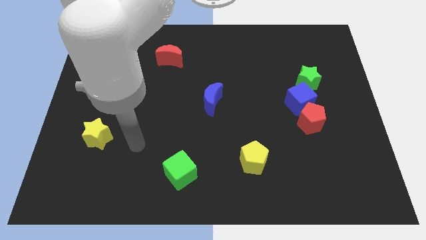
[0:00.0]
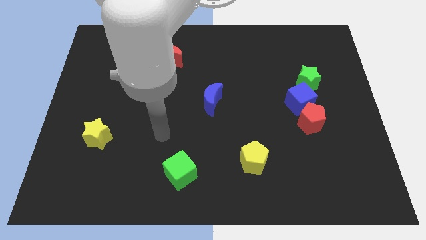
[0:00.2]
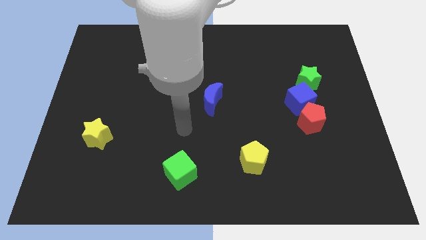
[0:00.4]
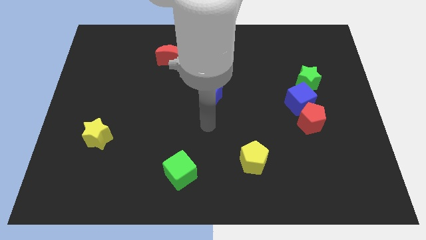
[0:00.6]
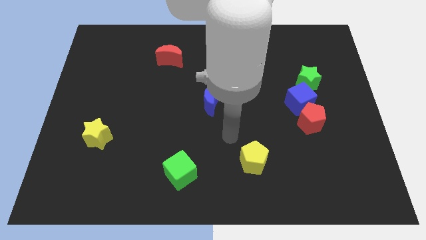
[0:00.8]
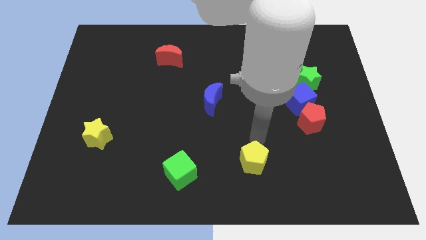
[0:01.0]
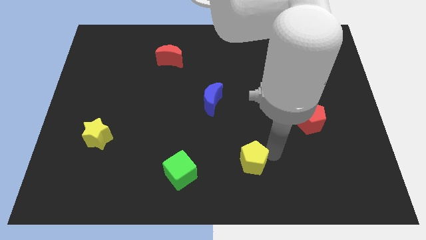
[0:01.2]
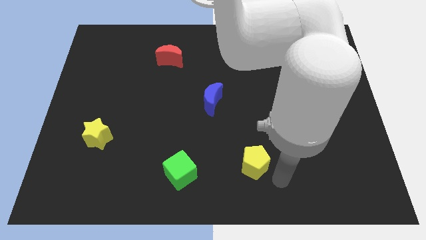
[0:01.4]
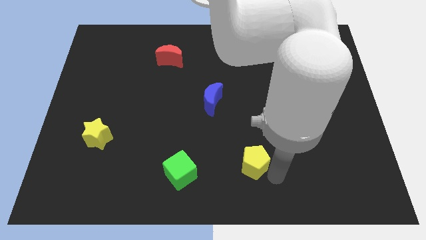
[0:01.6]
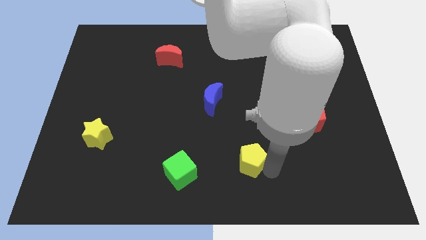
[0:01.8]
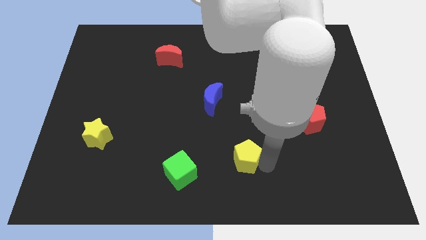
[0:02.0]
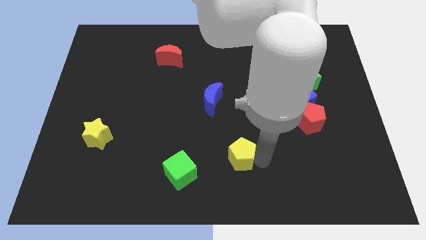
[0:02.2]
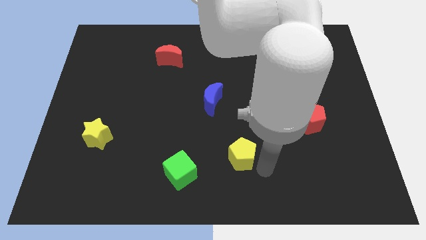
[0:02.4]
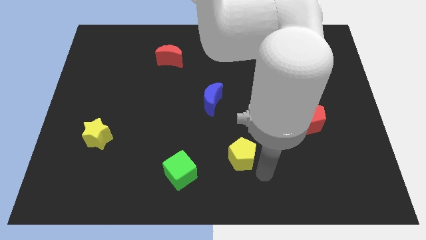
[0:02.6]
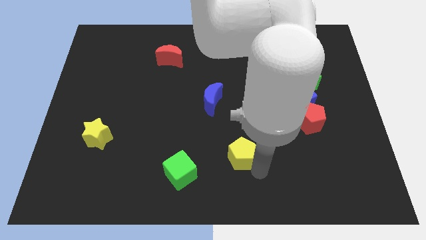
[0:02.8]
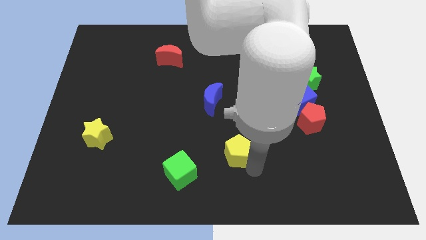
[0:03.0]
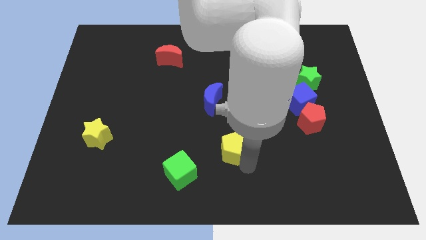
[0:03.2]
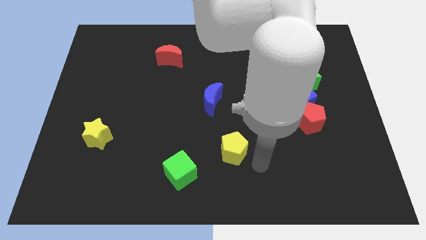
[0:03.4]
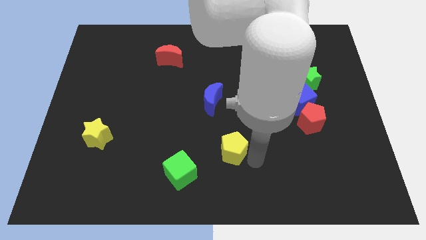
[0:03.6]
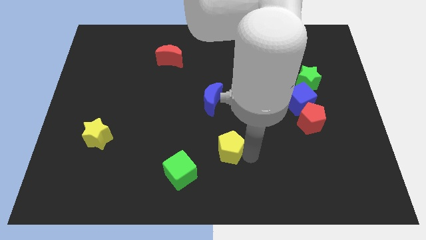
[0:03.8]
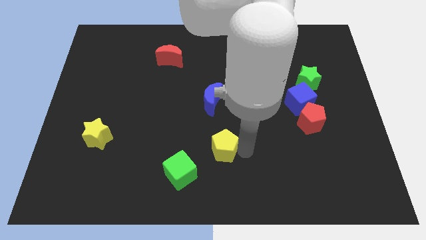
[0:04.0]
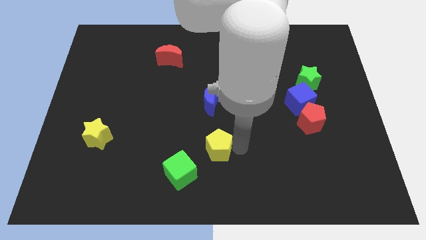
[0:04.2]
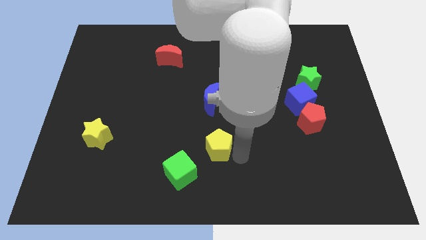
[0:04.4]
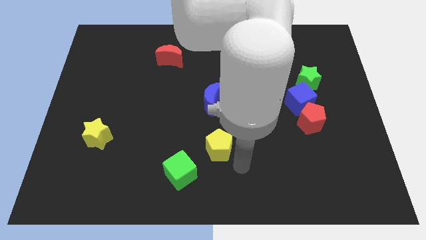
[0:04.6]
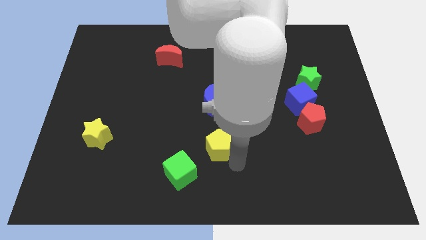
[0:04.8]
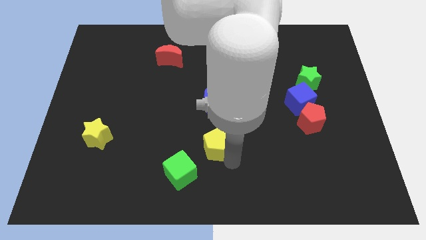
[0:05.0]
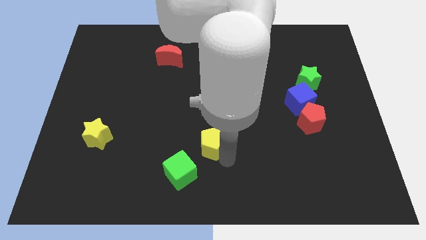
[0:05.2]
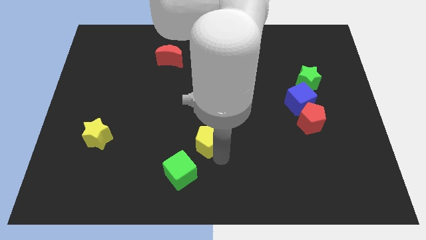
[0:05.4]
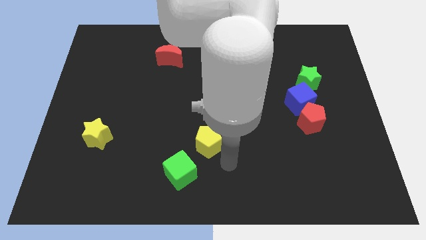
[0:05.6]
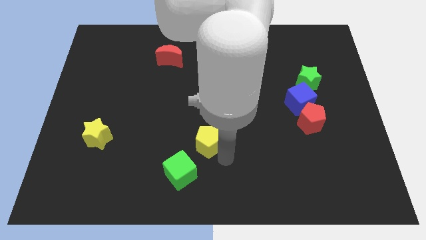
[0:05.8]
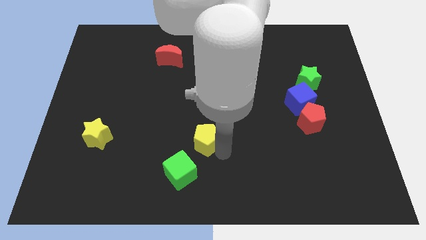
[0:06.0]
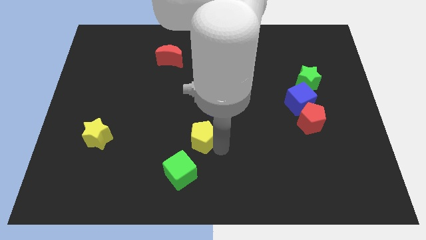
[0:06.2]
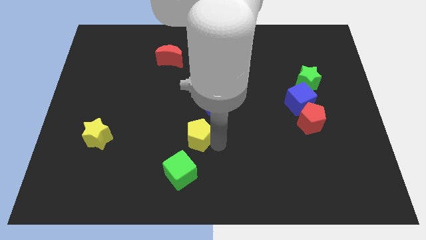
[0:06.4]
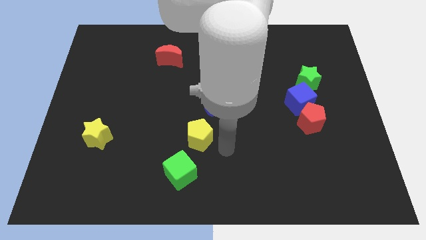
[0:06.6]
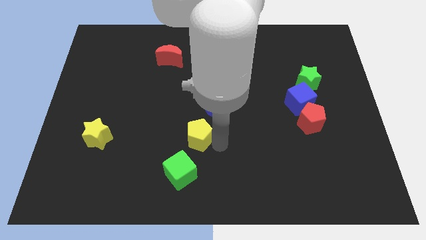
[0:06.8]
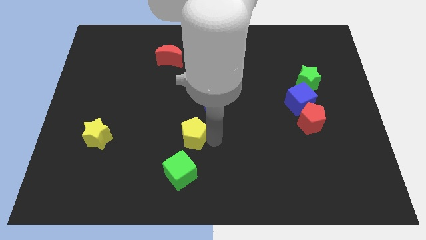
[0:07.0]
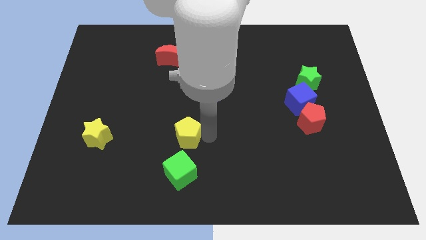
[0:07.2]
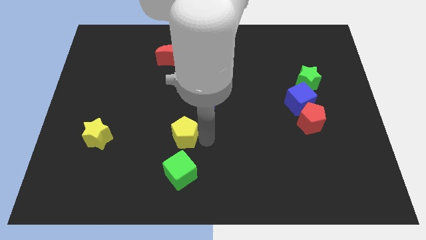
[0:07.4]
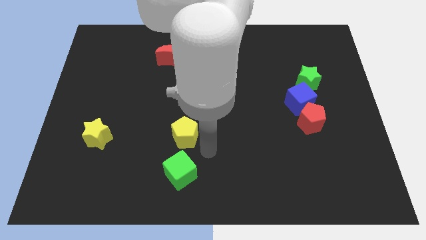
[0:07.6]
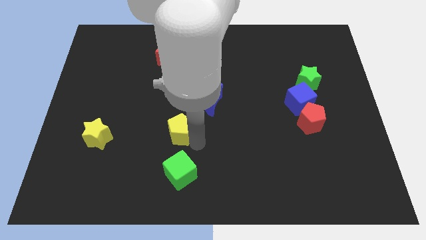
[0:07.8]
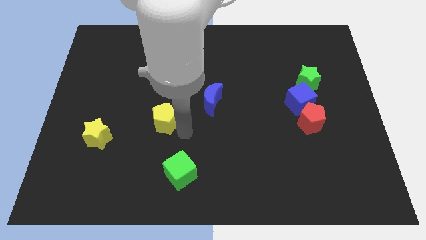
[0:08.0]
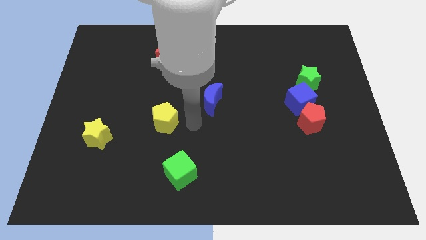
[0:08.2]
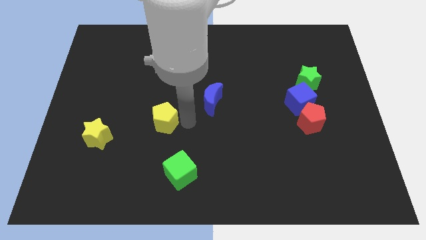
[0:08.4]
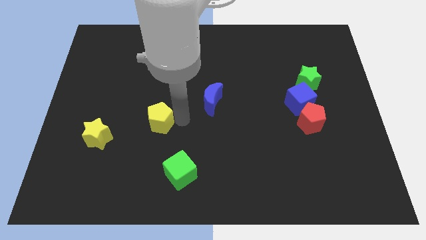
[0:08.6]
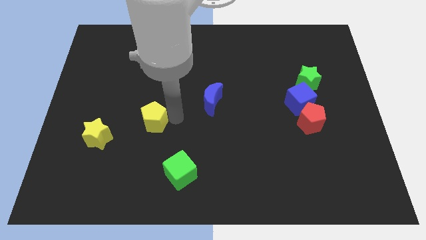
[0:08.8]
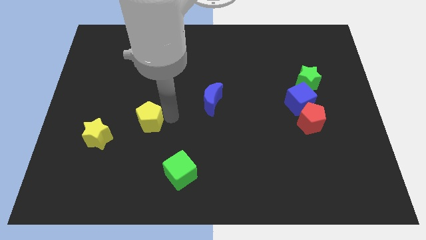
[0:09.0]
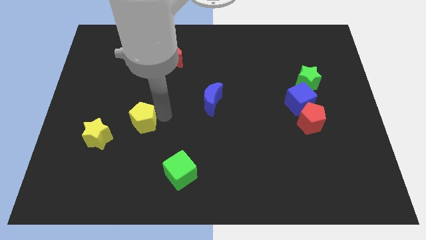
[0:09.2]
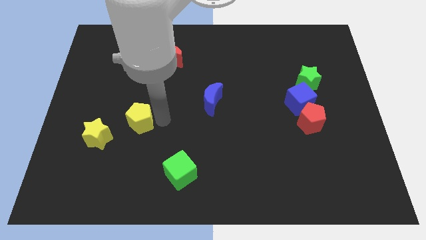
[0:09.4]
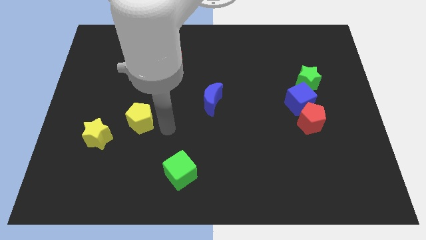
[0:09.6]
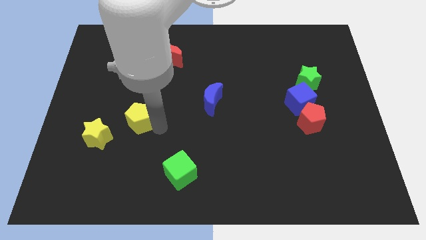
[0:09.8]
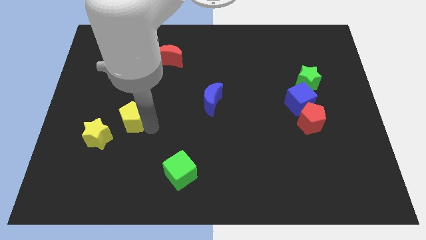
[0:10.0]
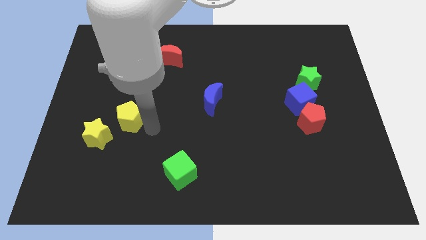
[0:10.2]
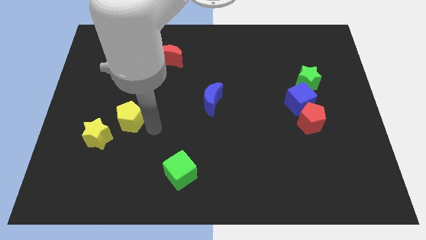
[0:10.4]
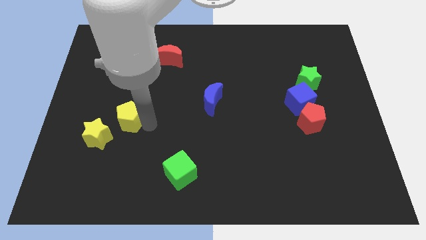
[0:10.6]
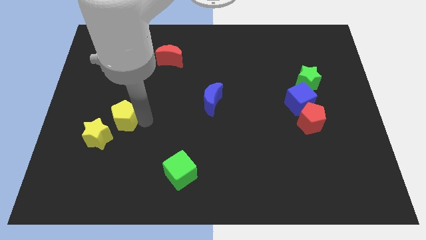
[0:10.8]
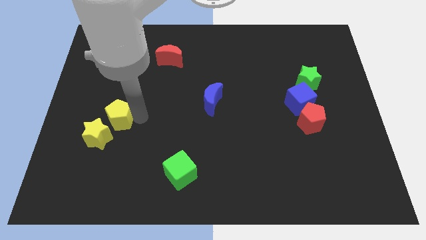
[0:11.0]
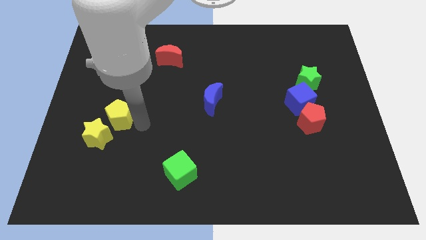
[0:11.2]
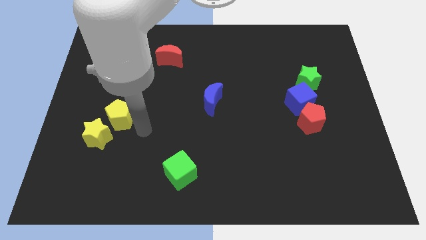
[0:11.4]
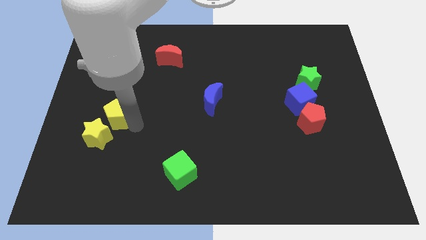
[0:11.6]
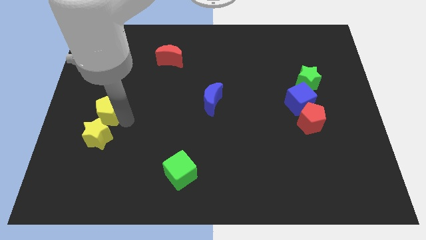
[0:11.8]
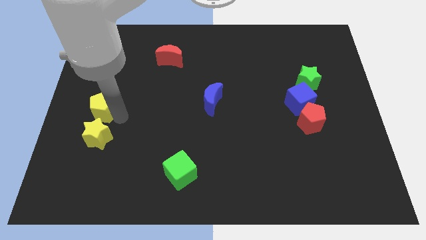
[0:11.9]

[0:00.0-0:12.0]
move the yellow pentagon to the center left

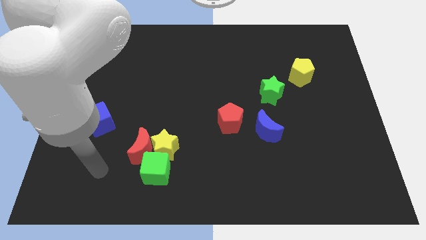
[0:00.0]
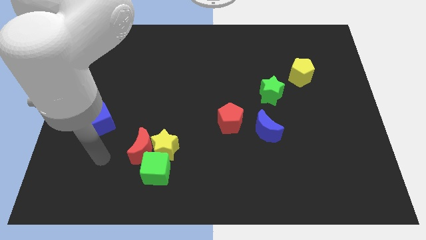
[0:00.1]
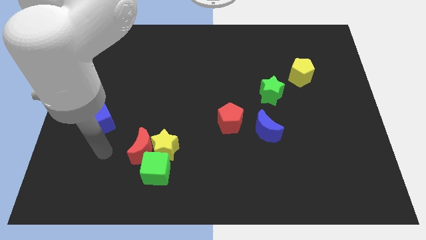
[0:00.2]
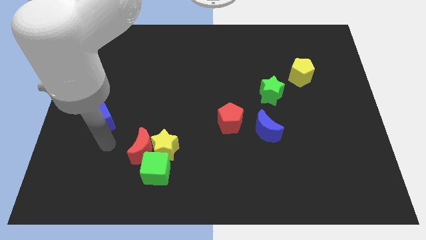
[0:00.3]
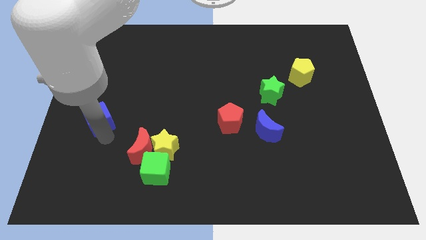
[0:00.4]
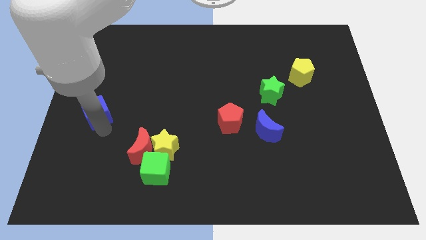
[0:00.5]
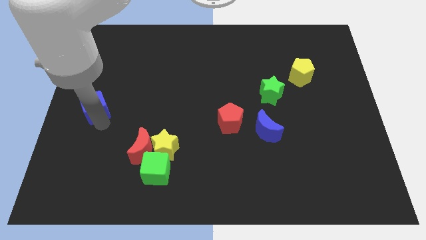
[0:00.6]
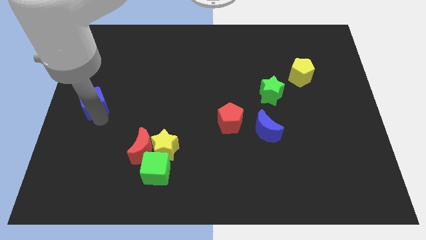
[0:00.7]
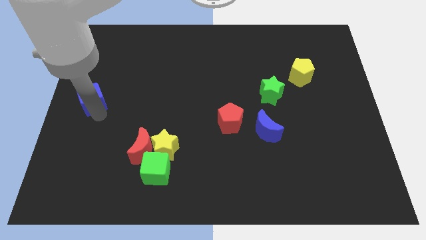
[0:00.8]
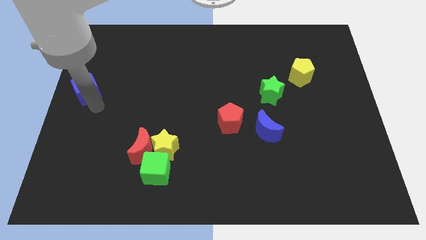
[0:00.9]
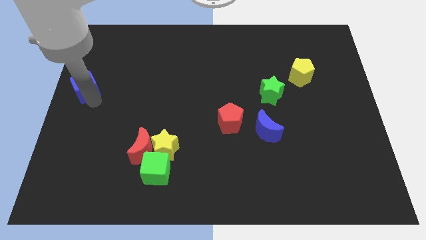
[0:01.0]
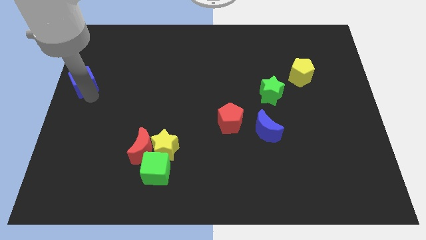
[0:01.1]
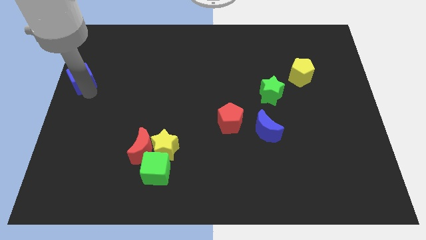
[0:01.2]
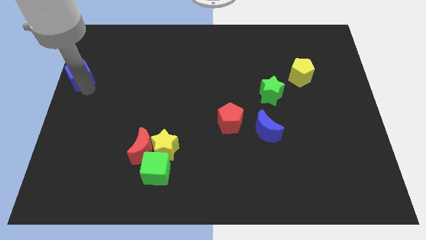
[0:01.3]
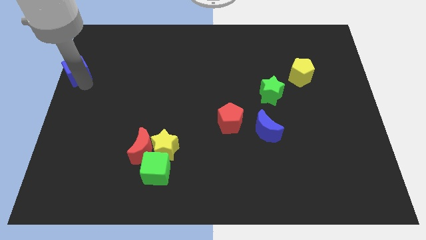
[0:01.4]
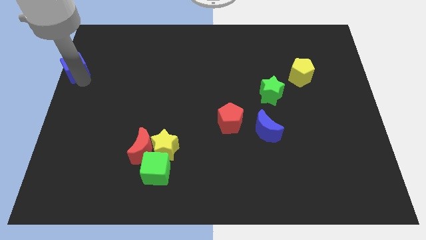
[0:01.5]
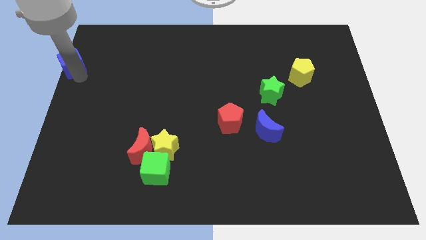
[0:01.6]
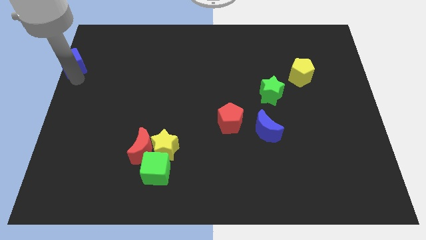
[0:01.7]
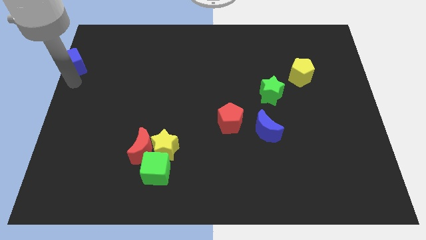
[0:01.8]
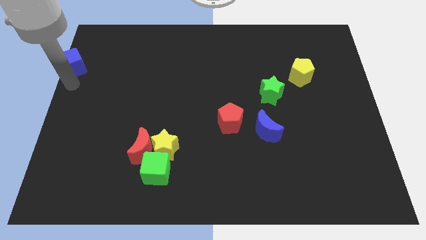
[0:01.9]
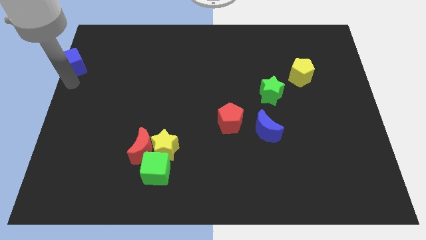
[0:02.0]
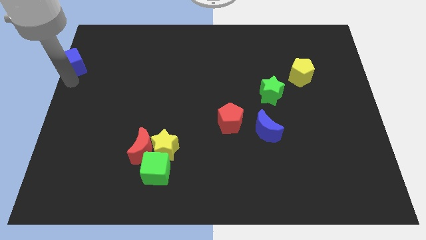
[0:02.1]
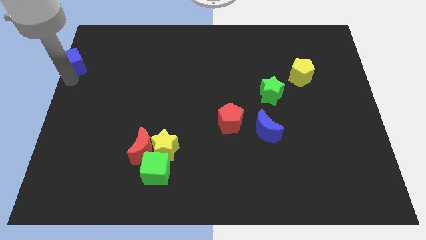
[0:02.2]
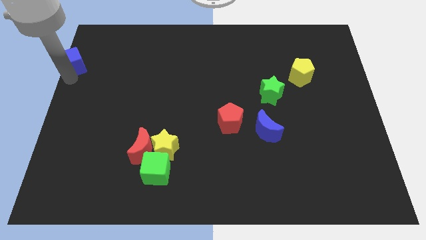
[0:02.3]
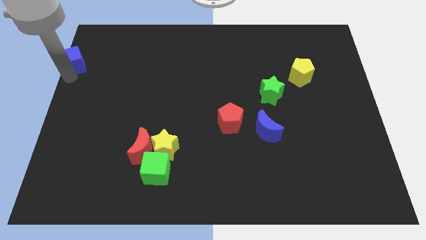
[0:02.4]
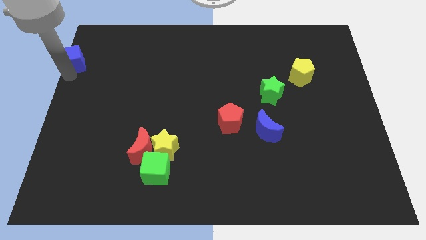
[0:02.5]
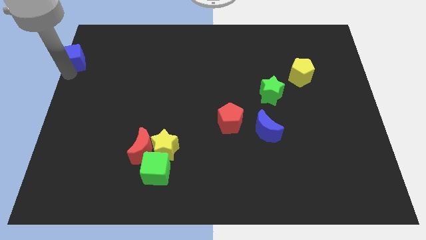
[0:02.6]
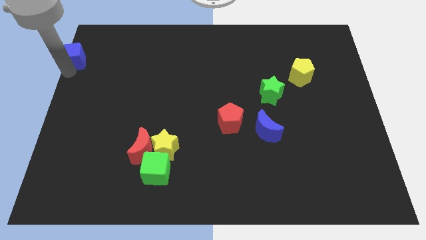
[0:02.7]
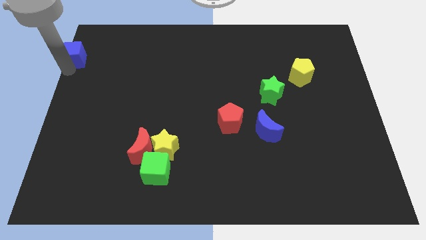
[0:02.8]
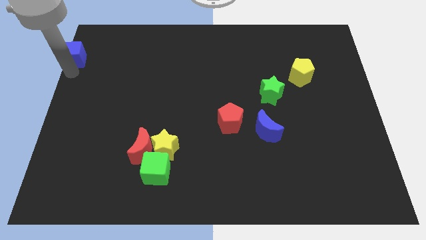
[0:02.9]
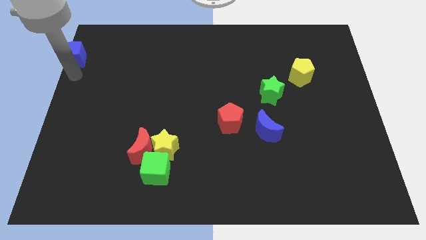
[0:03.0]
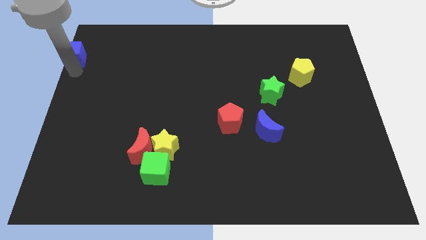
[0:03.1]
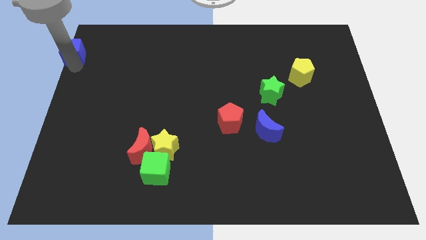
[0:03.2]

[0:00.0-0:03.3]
put the blue cube to the upper left corner
